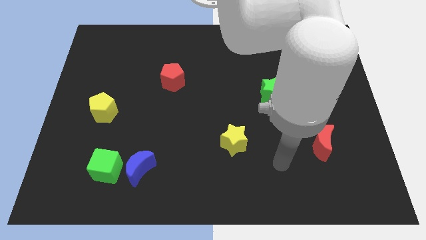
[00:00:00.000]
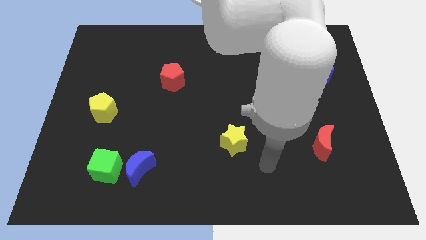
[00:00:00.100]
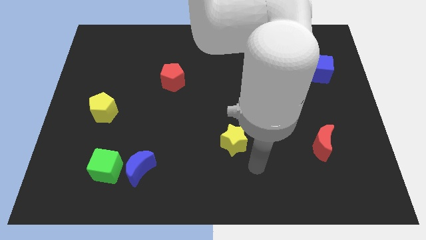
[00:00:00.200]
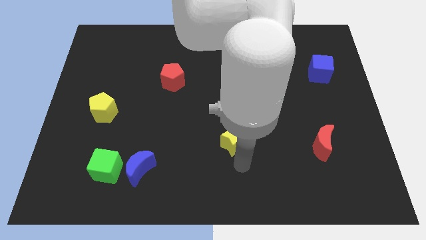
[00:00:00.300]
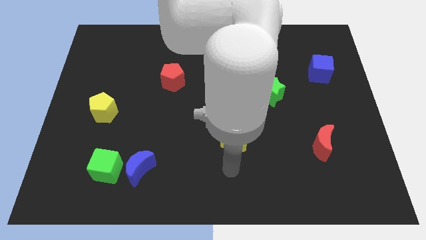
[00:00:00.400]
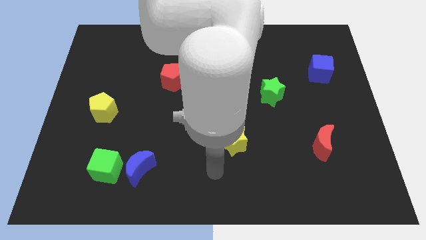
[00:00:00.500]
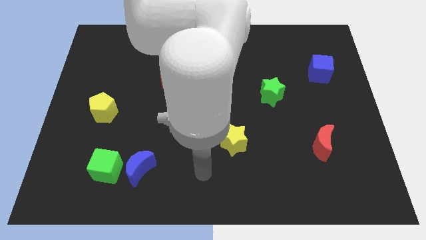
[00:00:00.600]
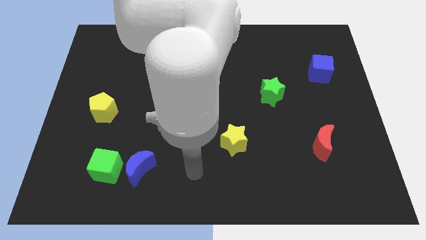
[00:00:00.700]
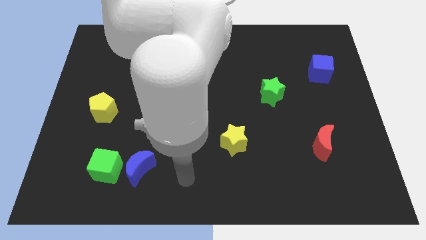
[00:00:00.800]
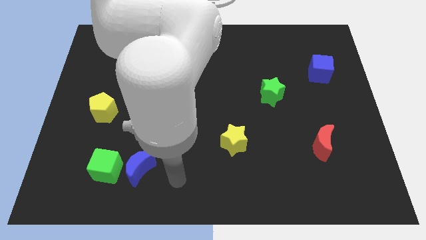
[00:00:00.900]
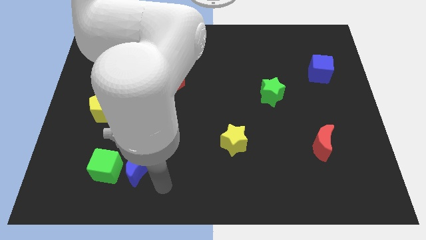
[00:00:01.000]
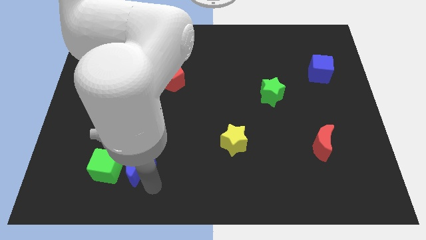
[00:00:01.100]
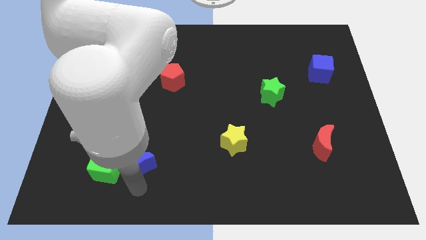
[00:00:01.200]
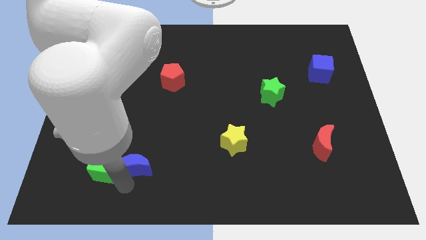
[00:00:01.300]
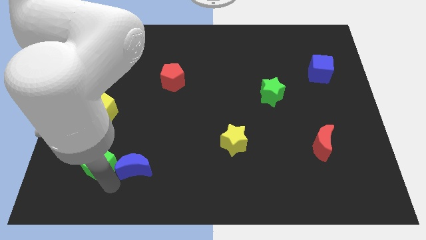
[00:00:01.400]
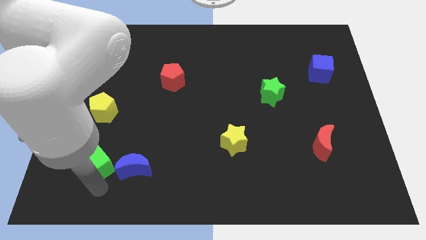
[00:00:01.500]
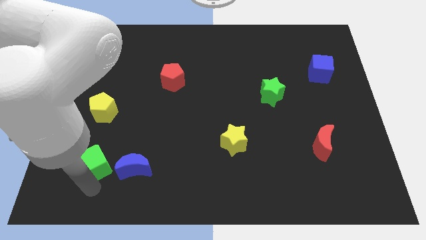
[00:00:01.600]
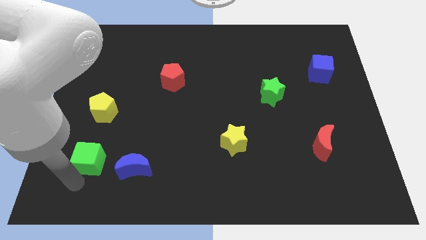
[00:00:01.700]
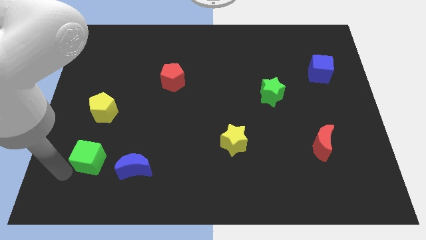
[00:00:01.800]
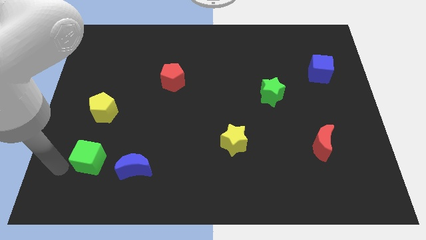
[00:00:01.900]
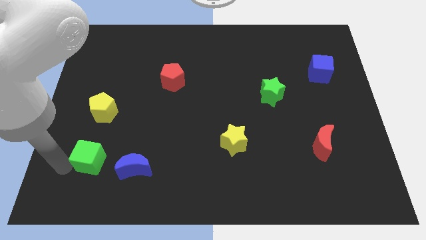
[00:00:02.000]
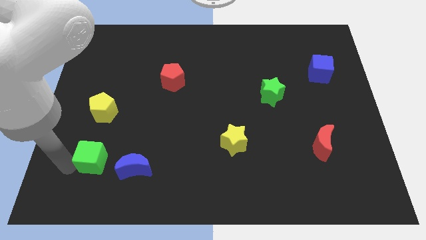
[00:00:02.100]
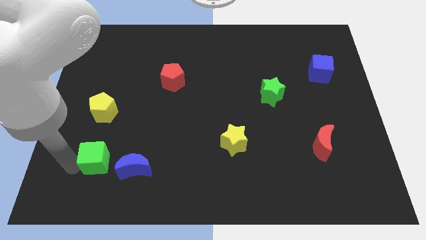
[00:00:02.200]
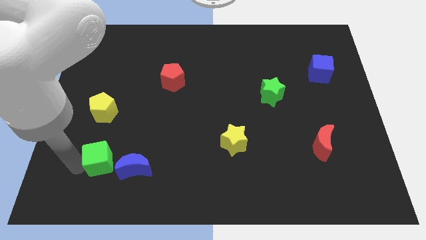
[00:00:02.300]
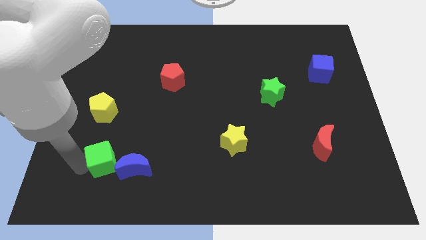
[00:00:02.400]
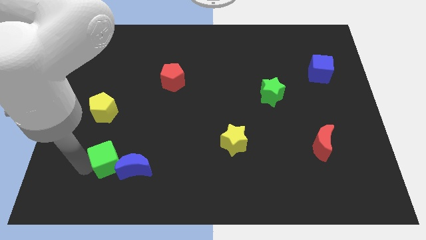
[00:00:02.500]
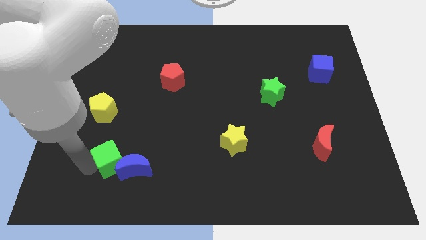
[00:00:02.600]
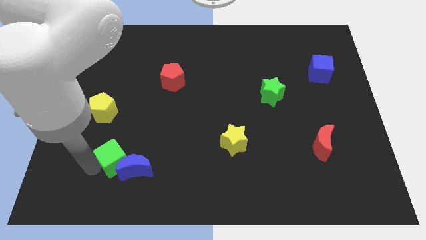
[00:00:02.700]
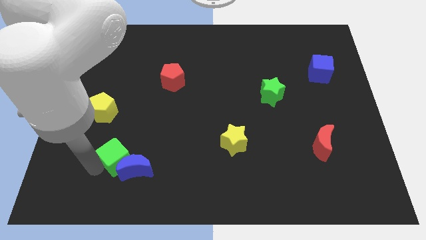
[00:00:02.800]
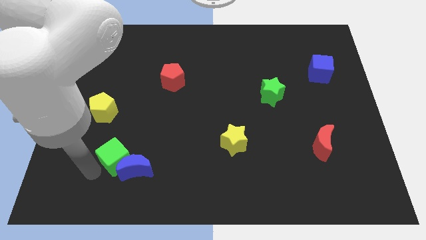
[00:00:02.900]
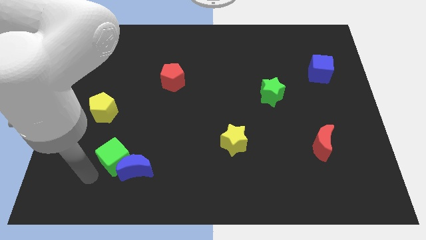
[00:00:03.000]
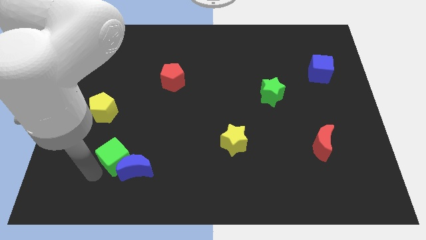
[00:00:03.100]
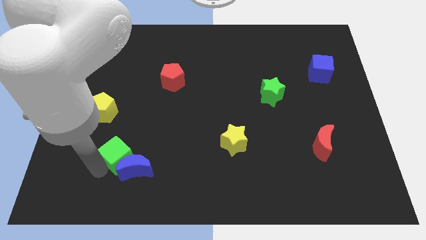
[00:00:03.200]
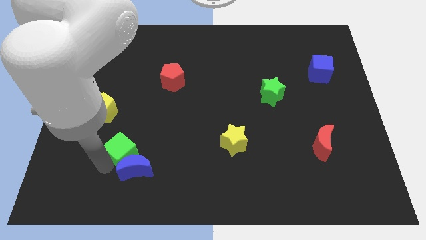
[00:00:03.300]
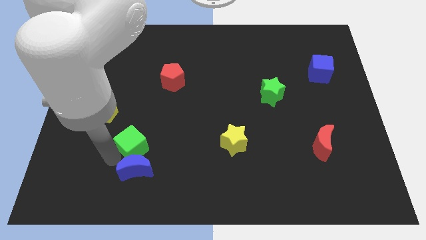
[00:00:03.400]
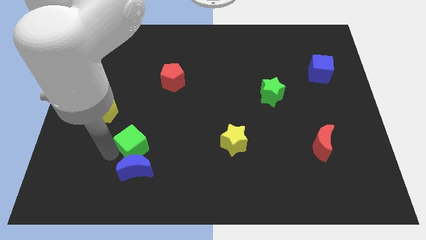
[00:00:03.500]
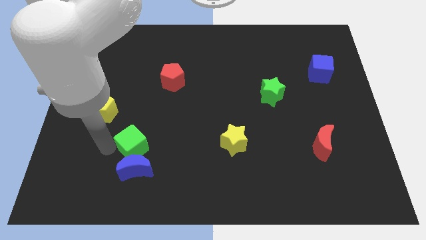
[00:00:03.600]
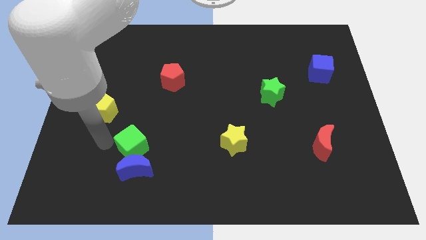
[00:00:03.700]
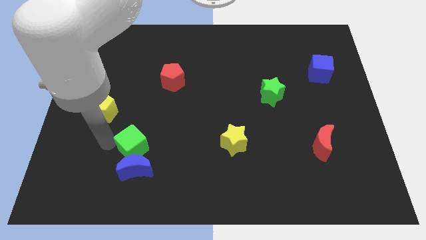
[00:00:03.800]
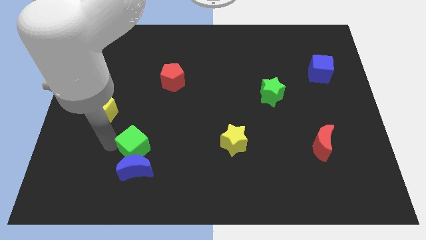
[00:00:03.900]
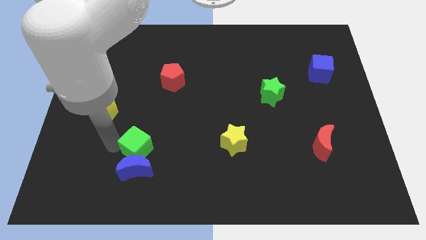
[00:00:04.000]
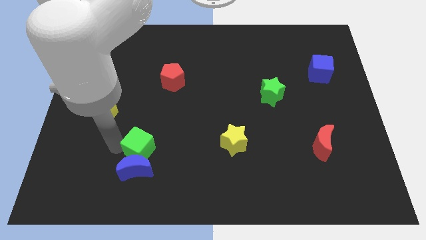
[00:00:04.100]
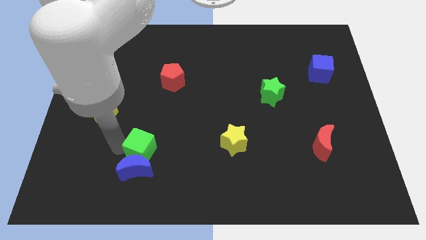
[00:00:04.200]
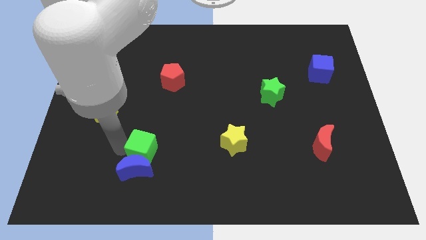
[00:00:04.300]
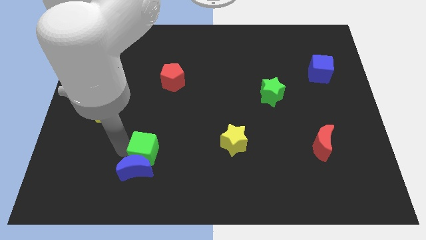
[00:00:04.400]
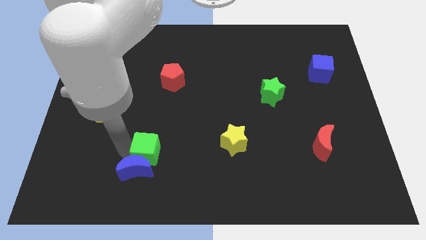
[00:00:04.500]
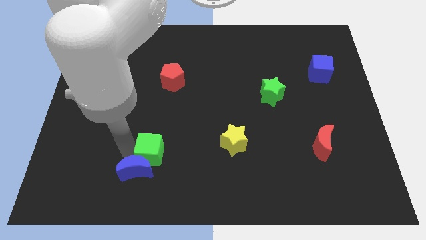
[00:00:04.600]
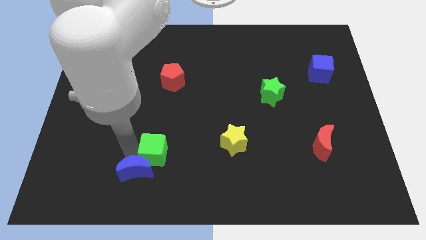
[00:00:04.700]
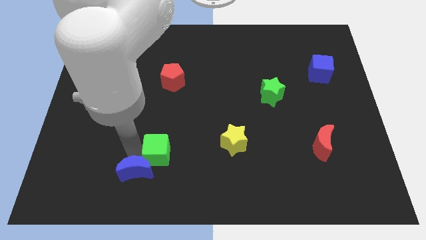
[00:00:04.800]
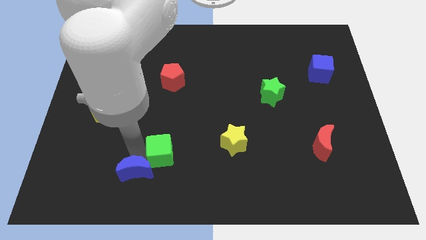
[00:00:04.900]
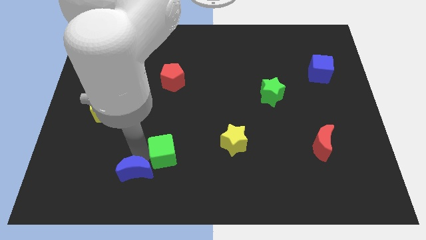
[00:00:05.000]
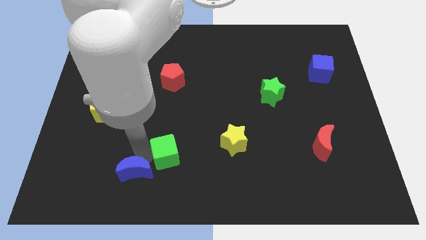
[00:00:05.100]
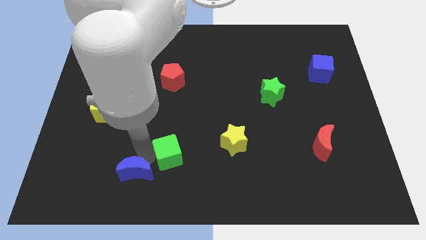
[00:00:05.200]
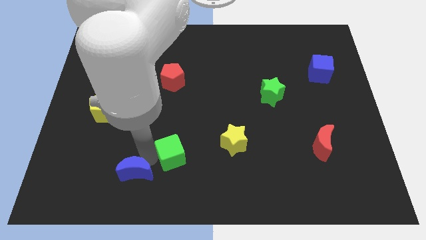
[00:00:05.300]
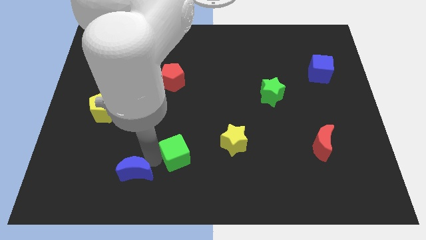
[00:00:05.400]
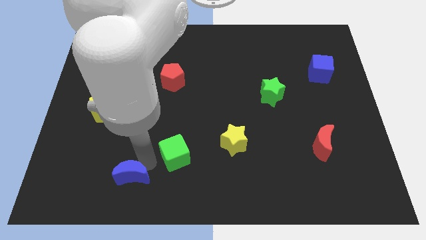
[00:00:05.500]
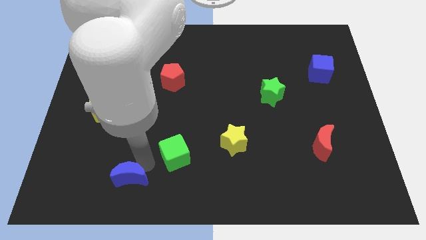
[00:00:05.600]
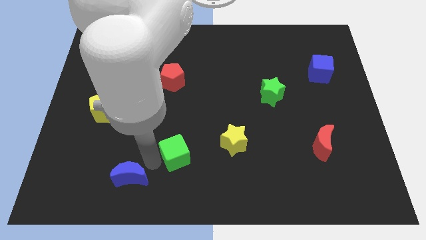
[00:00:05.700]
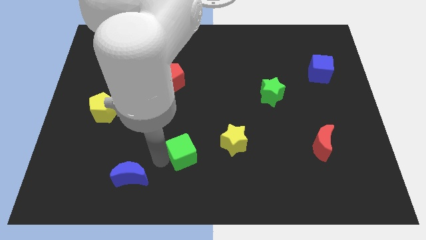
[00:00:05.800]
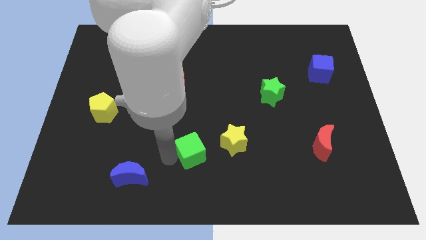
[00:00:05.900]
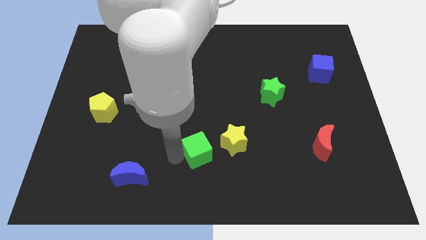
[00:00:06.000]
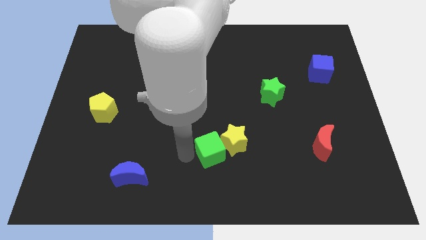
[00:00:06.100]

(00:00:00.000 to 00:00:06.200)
slide the green cube towards the yellow star

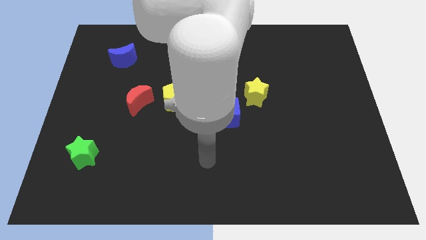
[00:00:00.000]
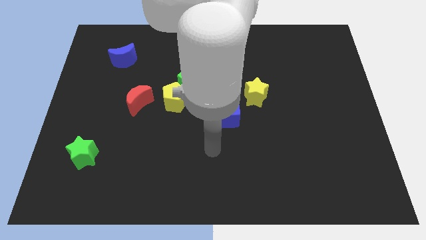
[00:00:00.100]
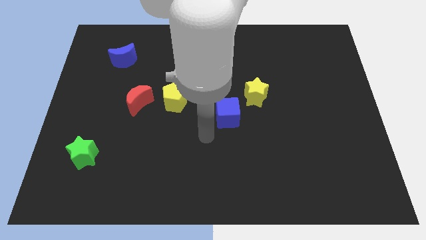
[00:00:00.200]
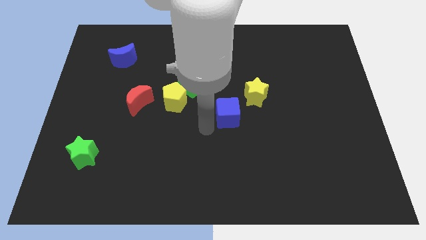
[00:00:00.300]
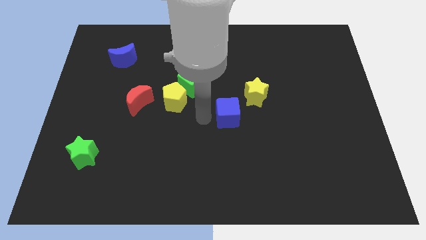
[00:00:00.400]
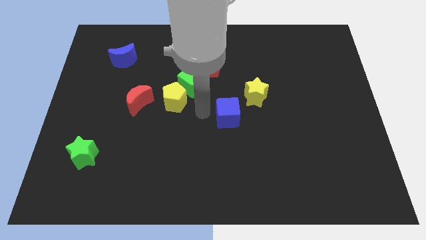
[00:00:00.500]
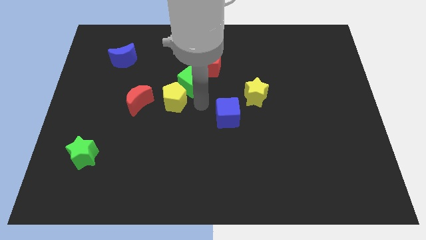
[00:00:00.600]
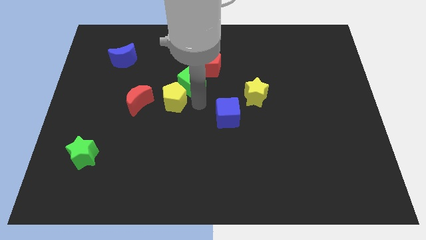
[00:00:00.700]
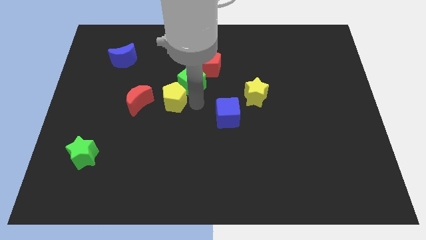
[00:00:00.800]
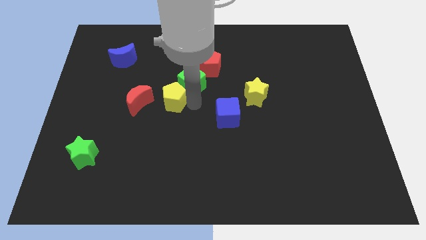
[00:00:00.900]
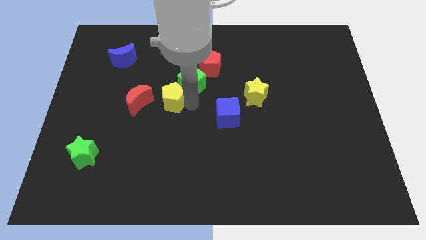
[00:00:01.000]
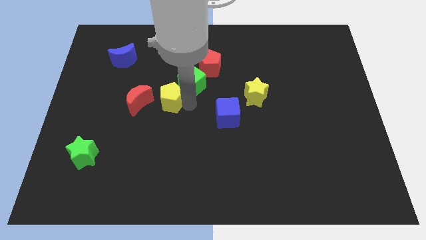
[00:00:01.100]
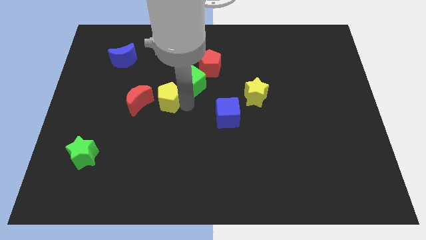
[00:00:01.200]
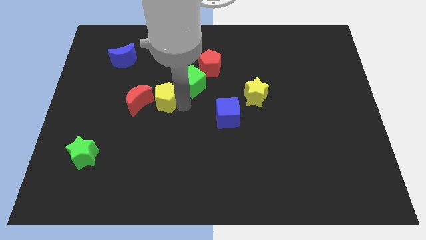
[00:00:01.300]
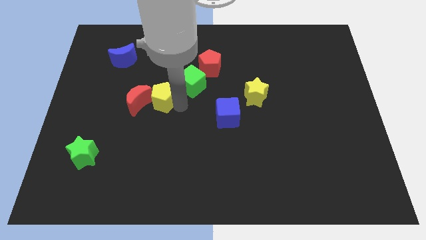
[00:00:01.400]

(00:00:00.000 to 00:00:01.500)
move the yellow pentagon to the red moon
